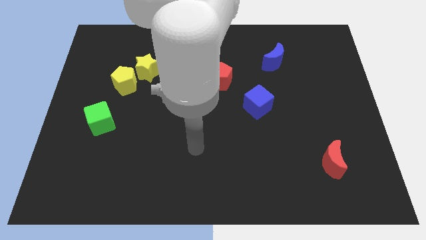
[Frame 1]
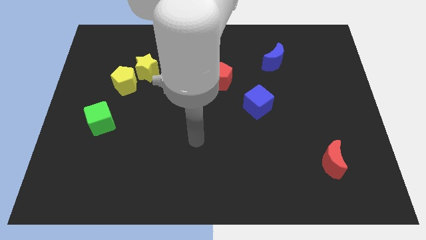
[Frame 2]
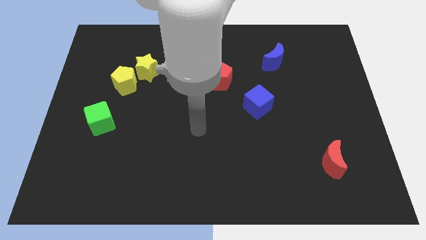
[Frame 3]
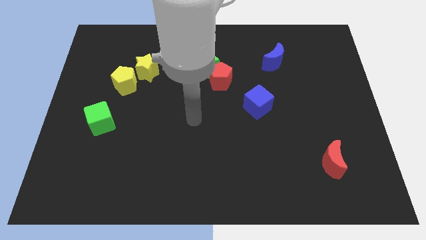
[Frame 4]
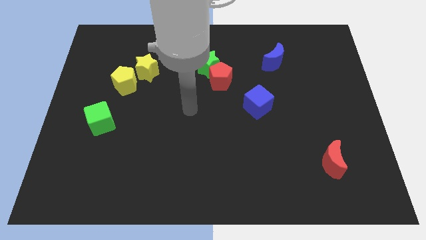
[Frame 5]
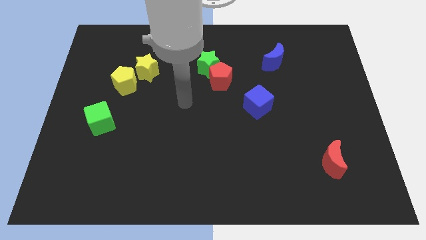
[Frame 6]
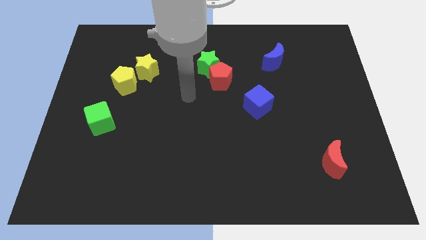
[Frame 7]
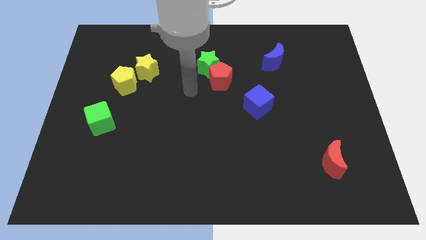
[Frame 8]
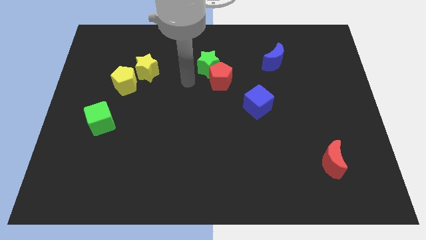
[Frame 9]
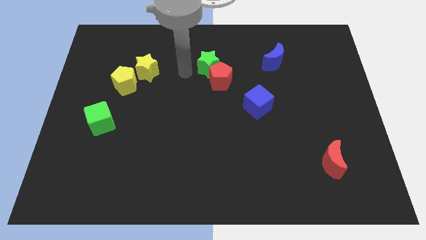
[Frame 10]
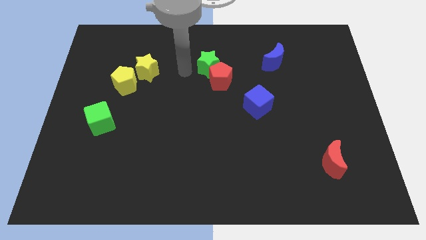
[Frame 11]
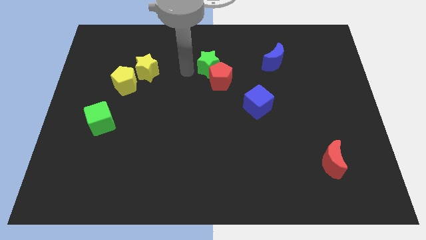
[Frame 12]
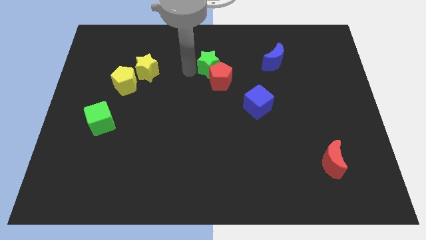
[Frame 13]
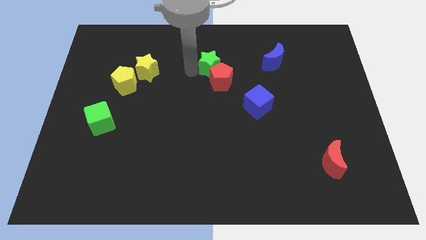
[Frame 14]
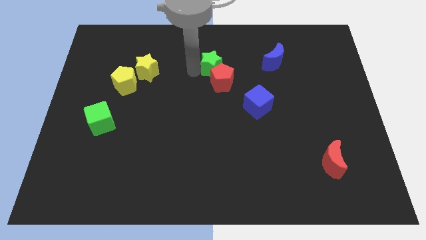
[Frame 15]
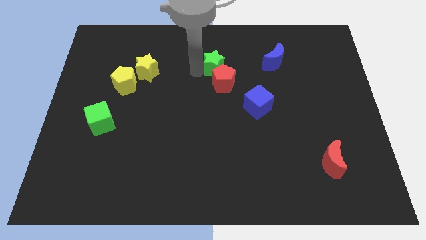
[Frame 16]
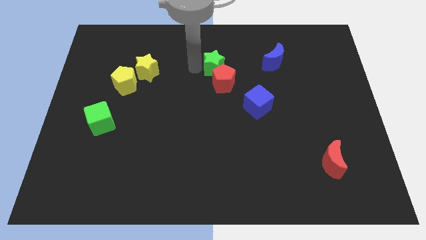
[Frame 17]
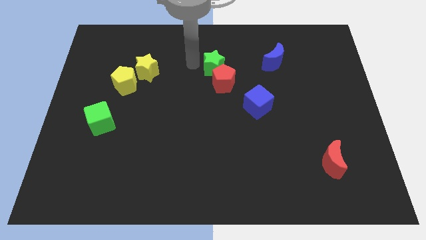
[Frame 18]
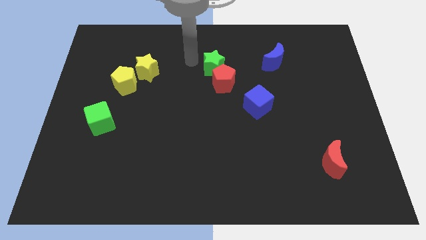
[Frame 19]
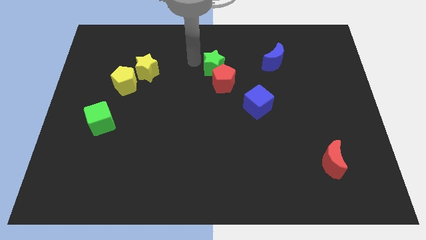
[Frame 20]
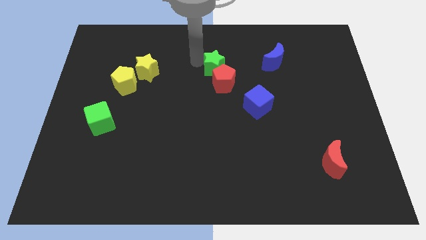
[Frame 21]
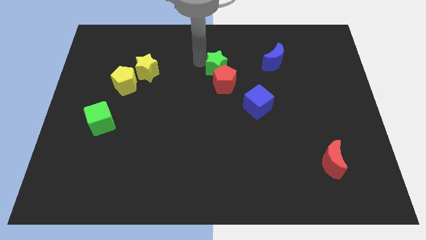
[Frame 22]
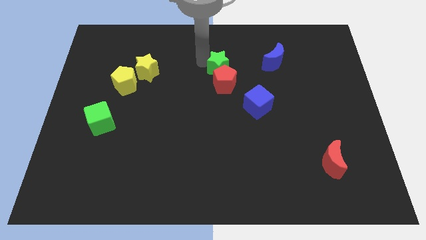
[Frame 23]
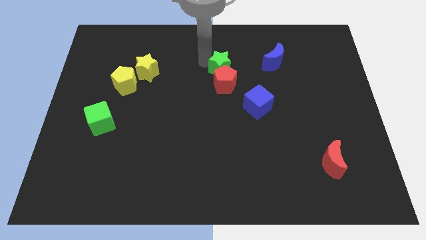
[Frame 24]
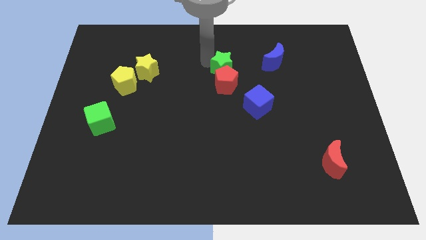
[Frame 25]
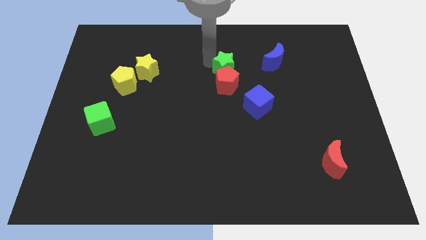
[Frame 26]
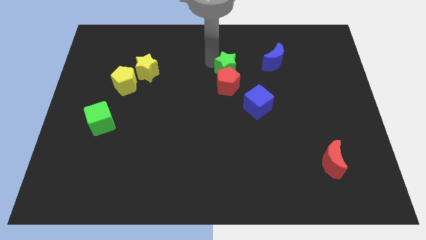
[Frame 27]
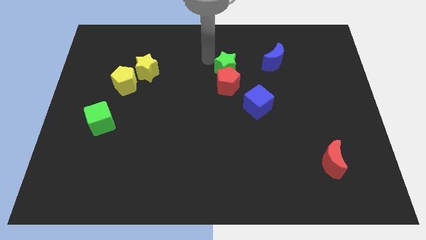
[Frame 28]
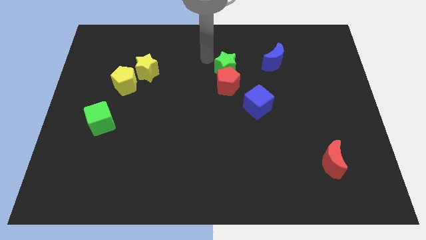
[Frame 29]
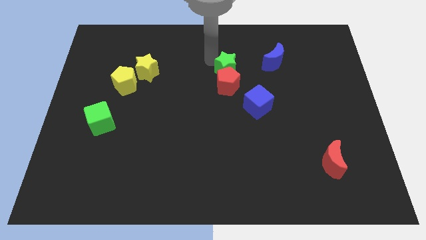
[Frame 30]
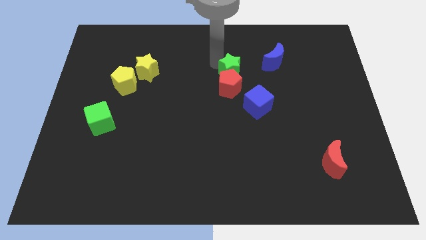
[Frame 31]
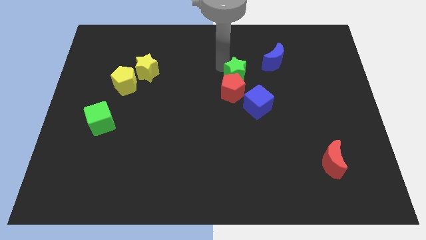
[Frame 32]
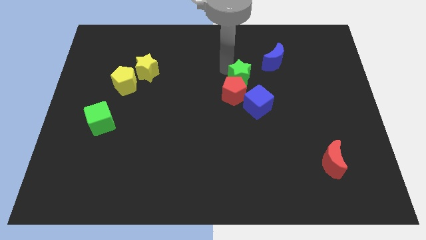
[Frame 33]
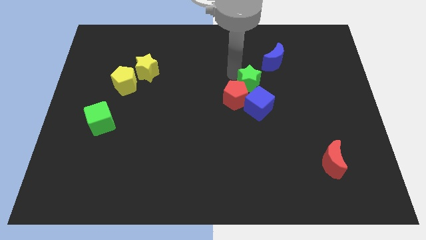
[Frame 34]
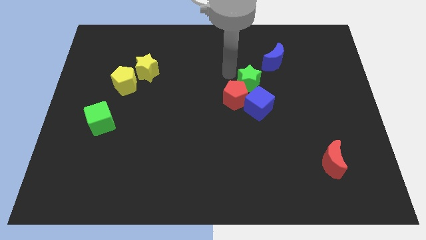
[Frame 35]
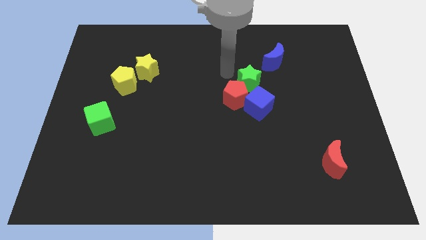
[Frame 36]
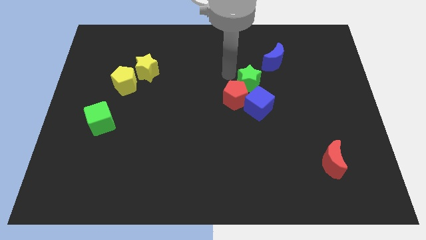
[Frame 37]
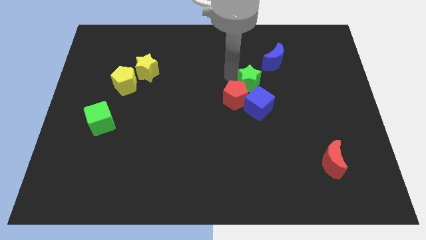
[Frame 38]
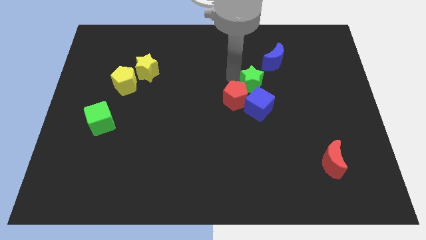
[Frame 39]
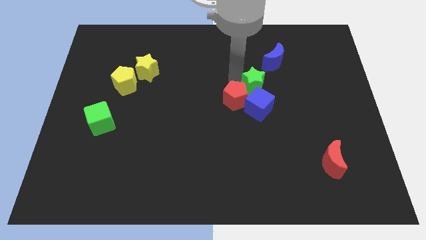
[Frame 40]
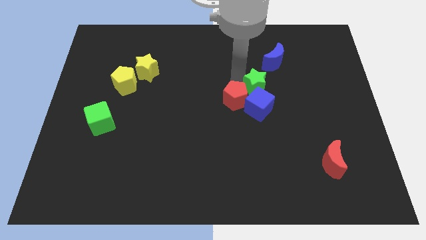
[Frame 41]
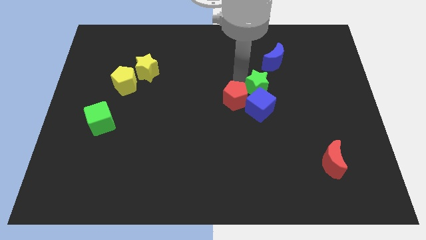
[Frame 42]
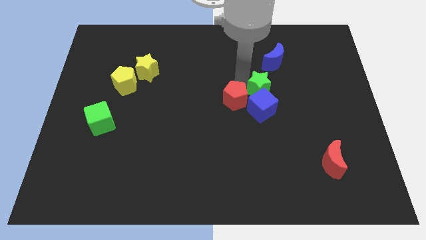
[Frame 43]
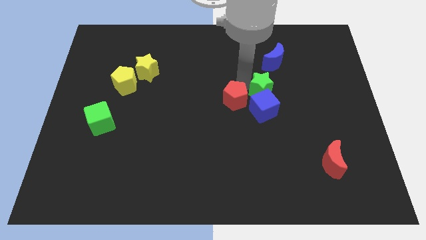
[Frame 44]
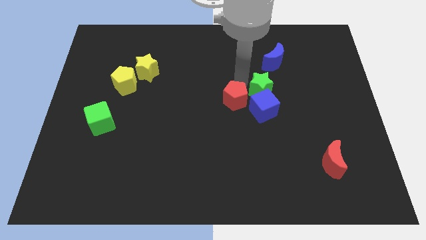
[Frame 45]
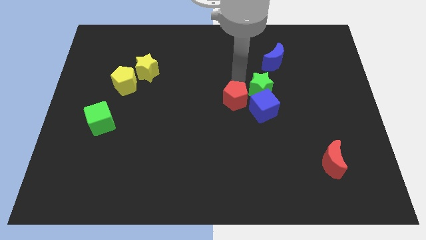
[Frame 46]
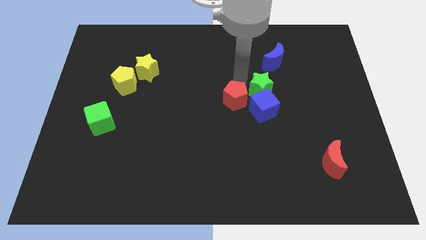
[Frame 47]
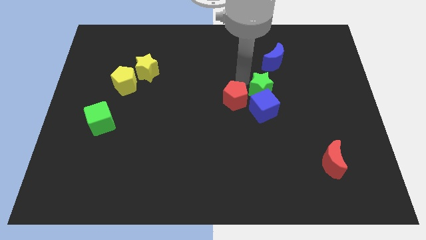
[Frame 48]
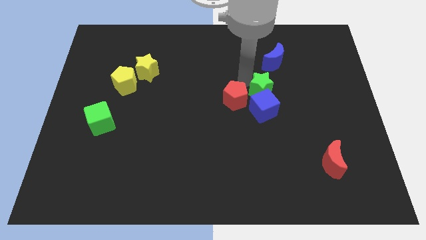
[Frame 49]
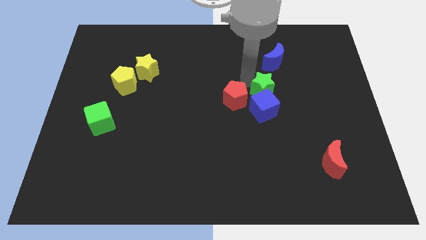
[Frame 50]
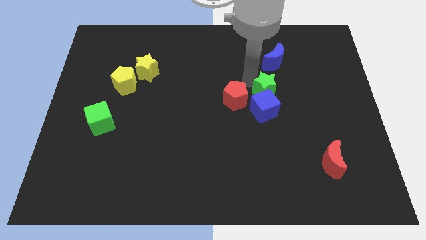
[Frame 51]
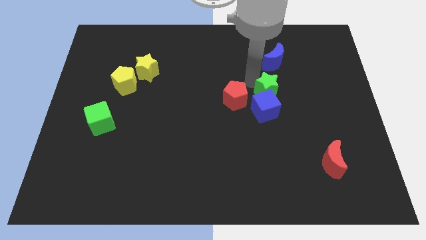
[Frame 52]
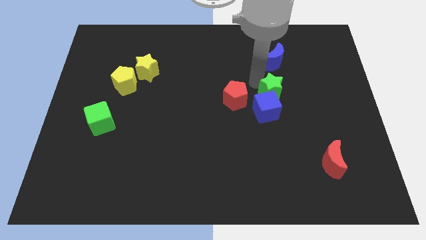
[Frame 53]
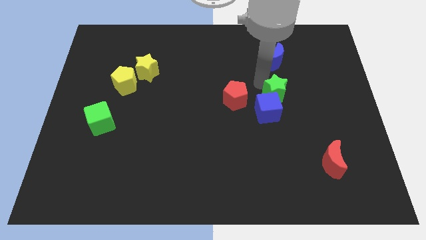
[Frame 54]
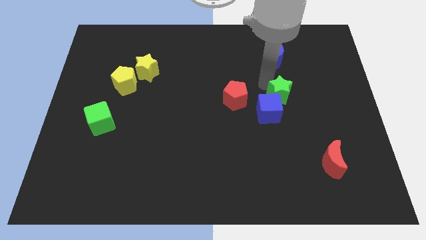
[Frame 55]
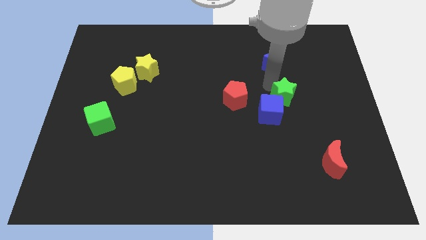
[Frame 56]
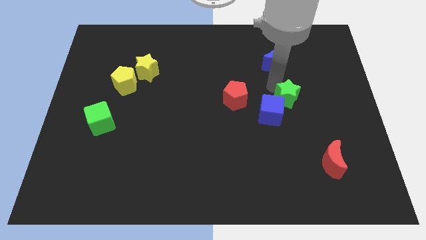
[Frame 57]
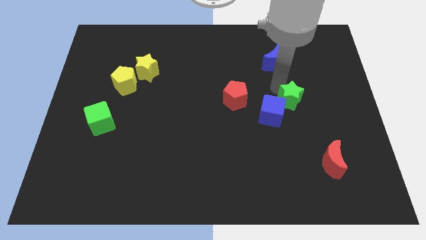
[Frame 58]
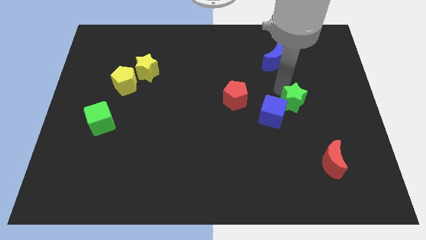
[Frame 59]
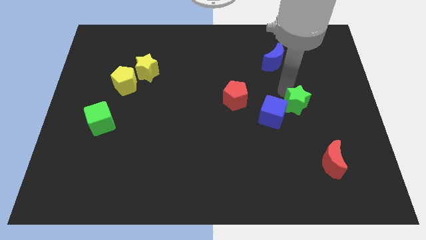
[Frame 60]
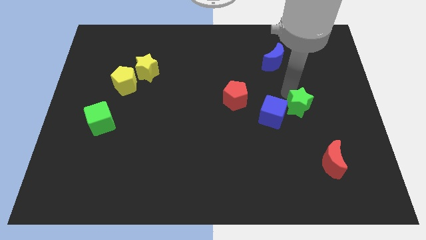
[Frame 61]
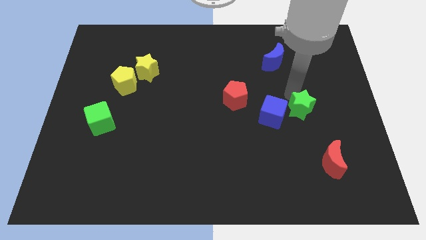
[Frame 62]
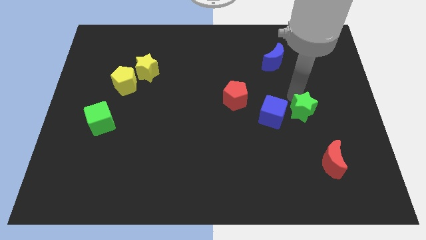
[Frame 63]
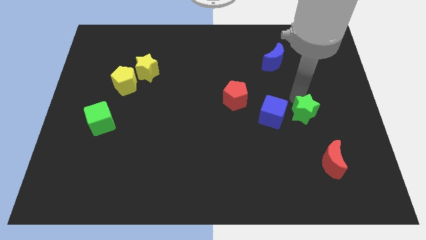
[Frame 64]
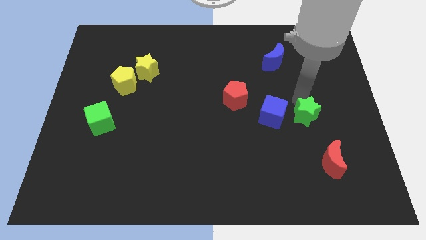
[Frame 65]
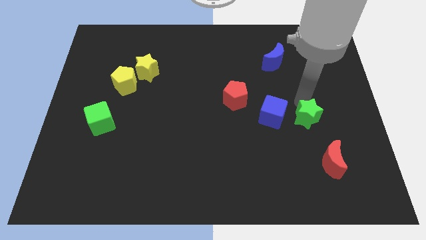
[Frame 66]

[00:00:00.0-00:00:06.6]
move the green star to the bottom right side of the blue cube

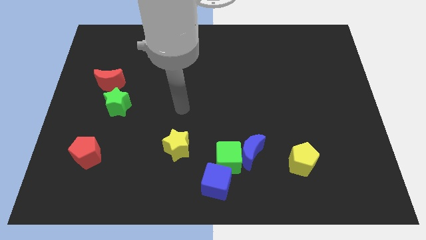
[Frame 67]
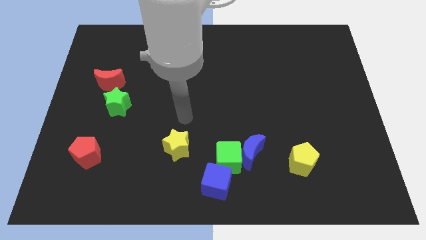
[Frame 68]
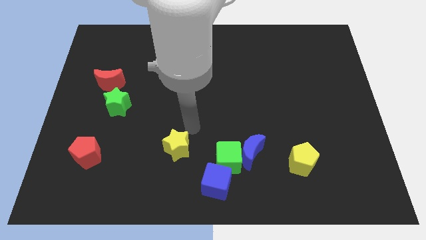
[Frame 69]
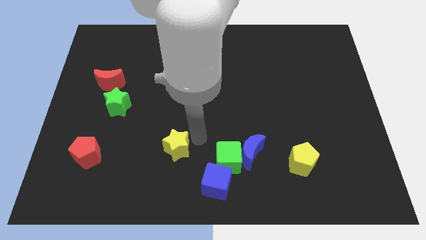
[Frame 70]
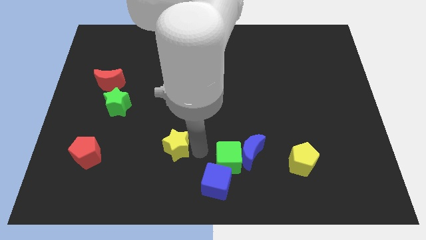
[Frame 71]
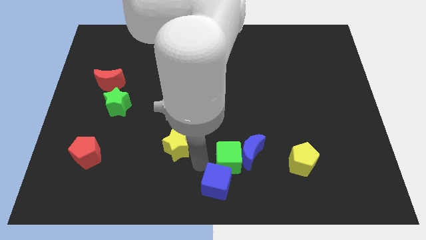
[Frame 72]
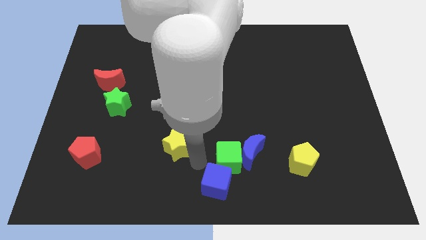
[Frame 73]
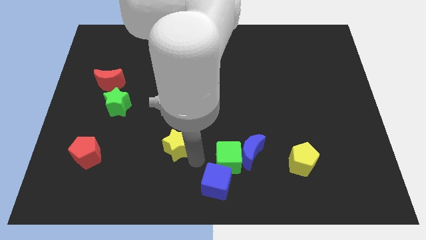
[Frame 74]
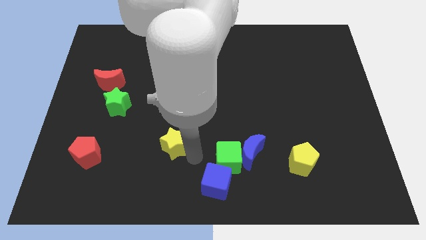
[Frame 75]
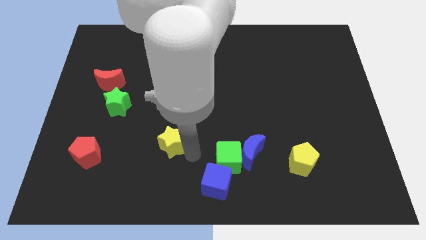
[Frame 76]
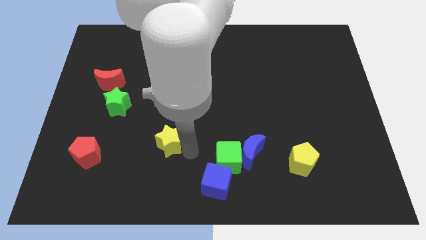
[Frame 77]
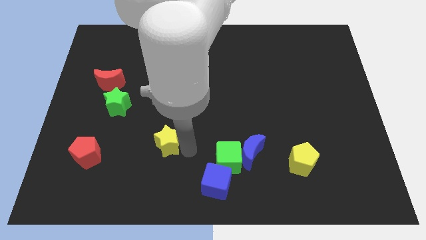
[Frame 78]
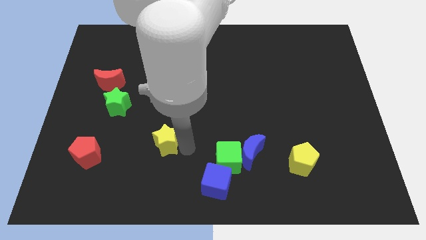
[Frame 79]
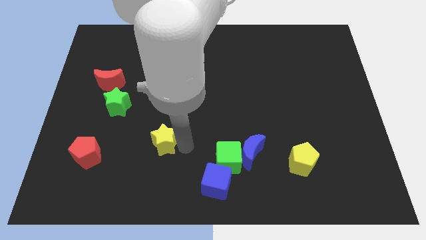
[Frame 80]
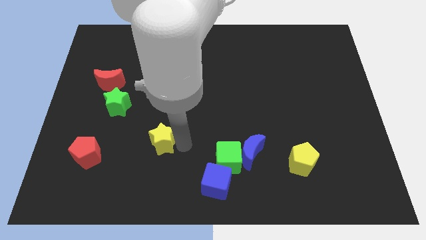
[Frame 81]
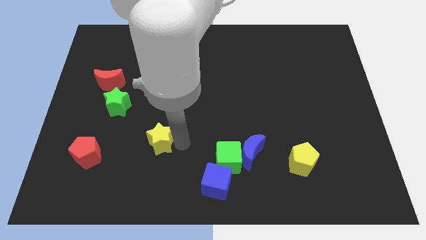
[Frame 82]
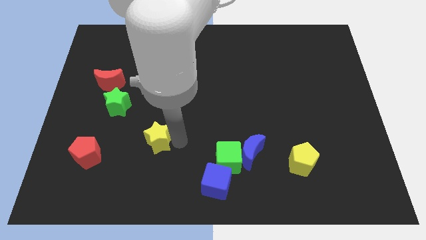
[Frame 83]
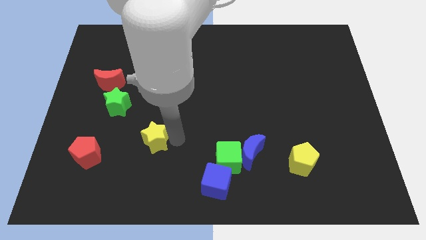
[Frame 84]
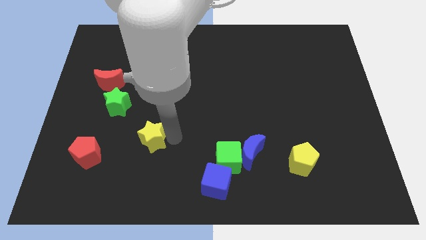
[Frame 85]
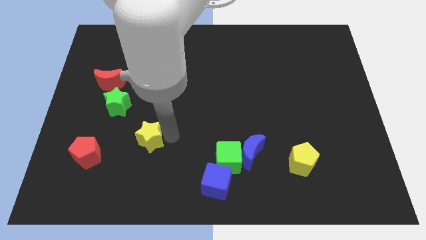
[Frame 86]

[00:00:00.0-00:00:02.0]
put the yellow star to the bottom right of the green star
